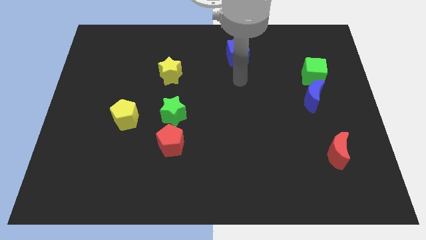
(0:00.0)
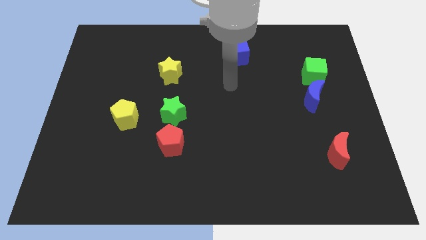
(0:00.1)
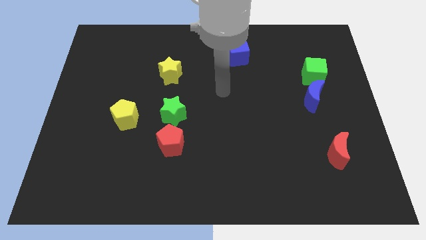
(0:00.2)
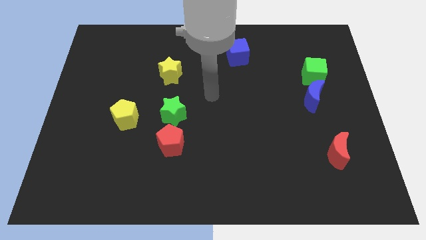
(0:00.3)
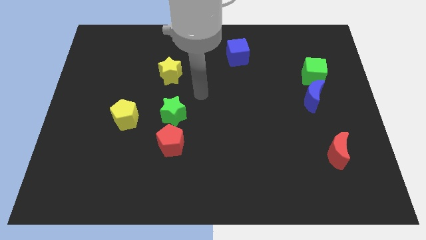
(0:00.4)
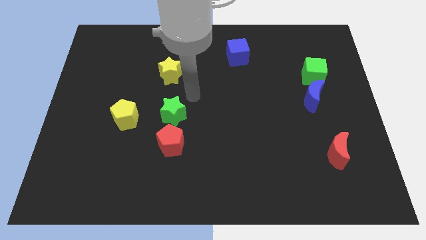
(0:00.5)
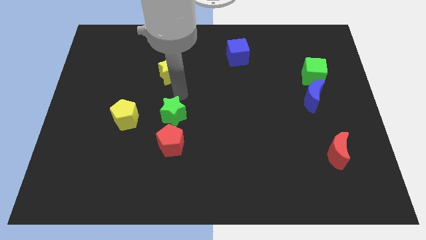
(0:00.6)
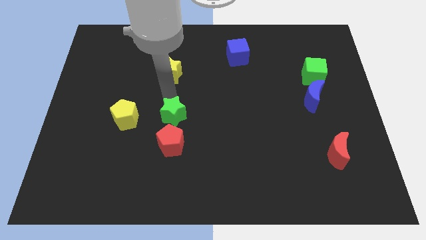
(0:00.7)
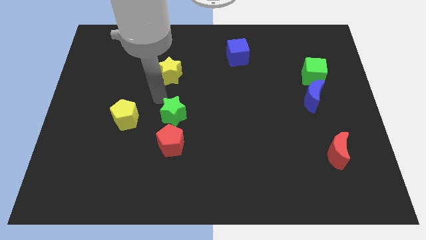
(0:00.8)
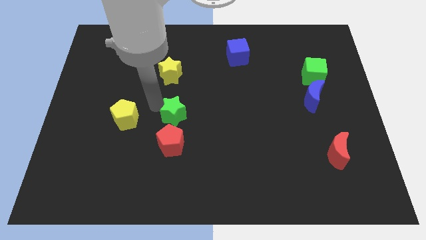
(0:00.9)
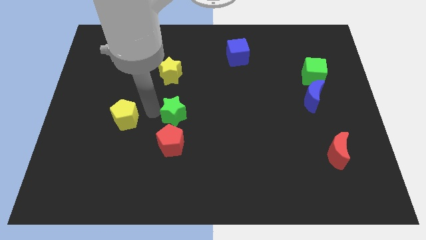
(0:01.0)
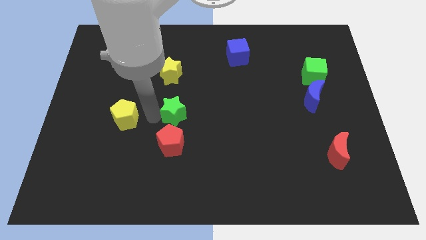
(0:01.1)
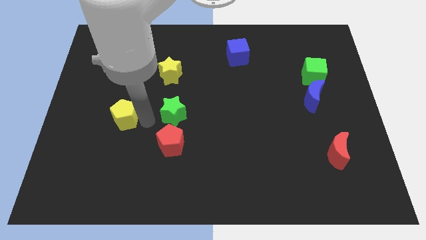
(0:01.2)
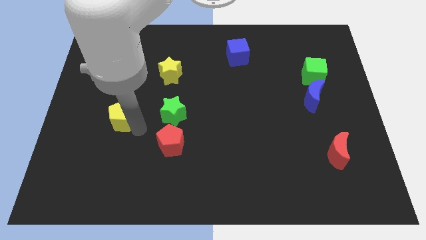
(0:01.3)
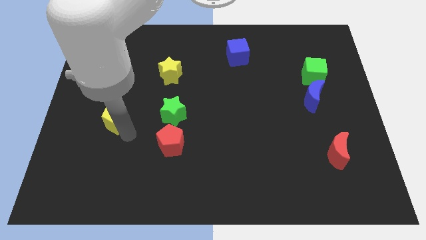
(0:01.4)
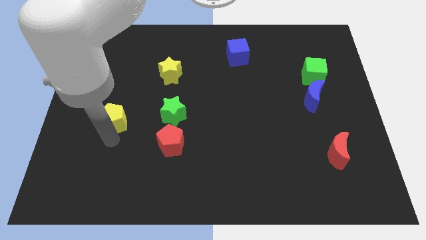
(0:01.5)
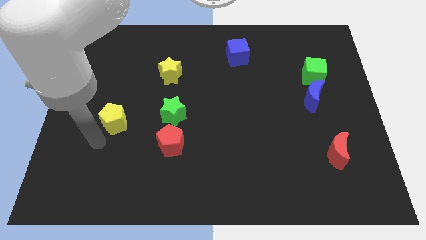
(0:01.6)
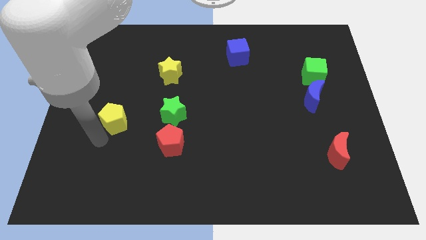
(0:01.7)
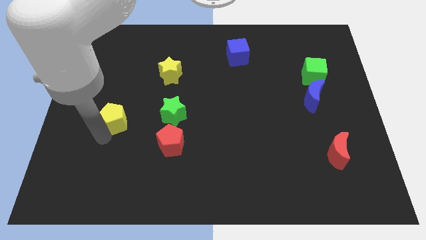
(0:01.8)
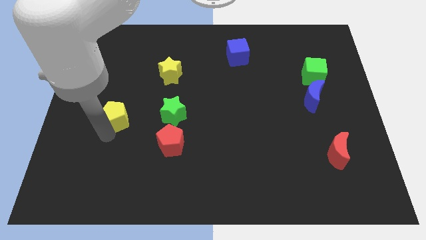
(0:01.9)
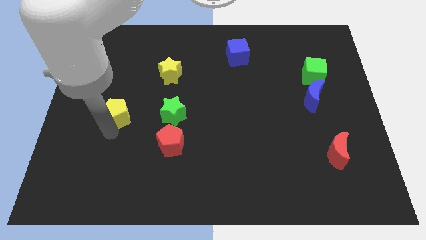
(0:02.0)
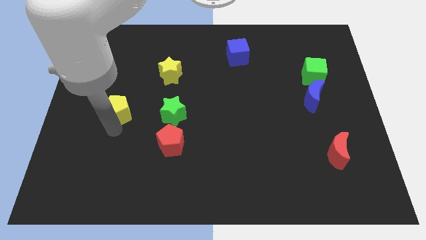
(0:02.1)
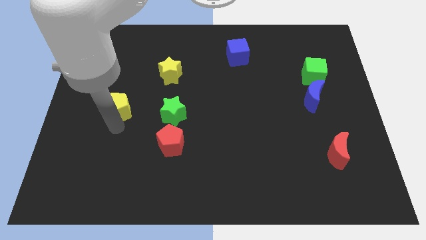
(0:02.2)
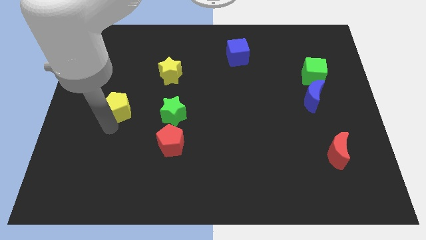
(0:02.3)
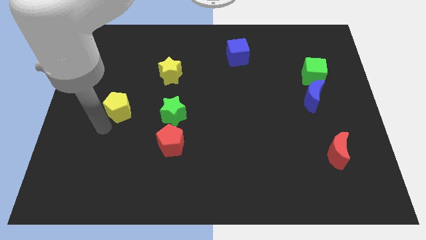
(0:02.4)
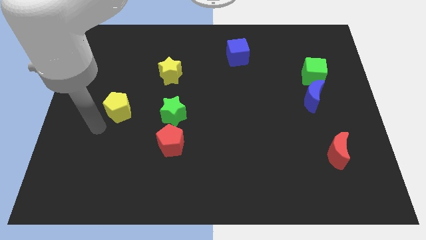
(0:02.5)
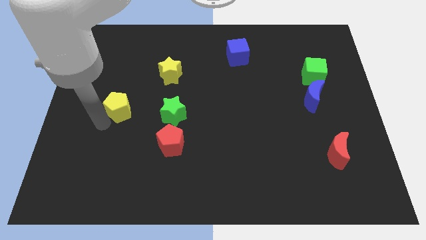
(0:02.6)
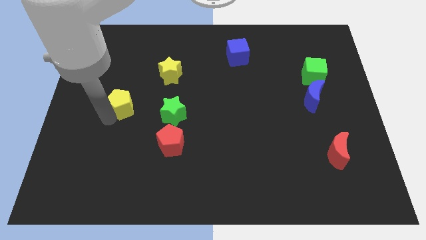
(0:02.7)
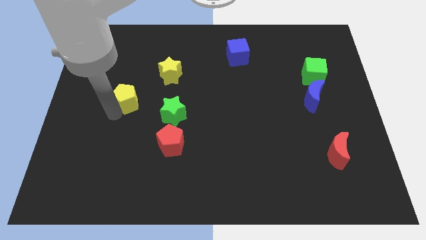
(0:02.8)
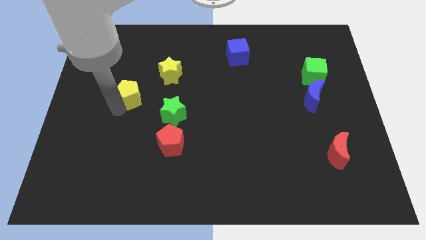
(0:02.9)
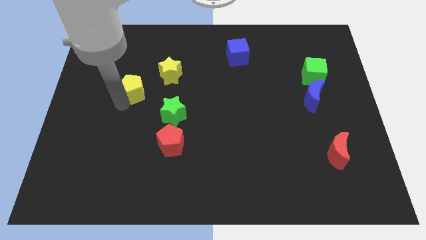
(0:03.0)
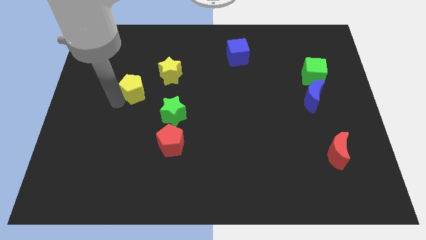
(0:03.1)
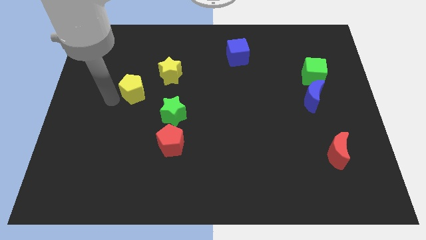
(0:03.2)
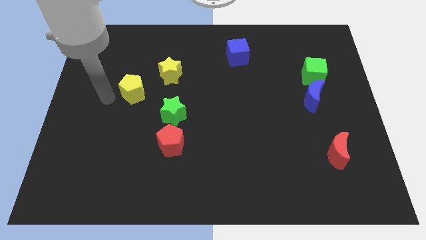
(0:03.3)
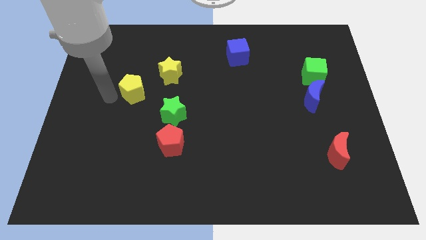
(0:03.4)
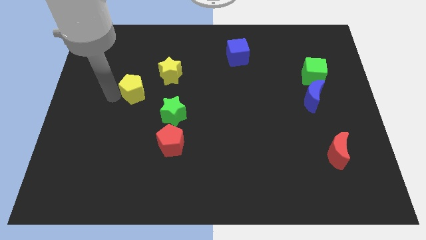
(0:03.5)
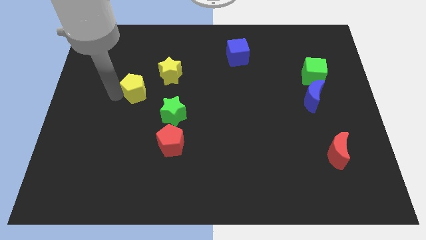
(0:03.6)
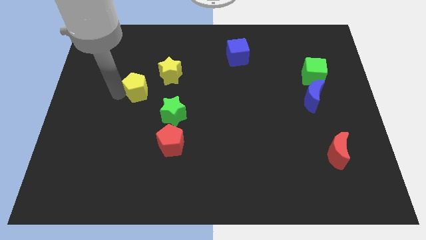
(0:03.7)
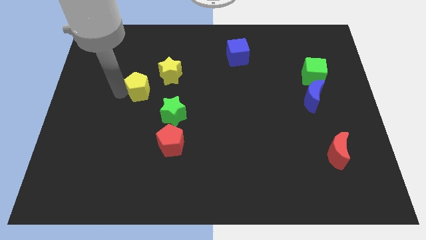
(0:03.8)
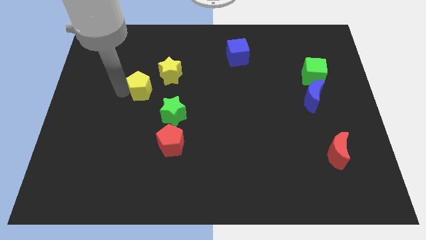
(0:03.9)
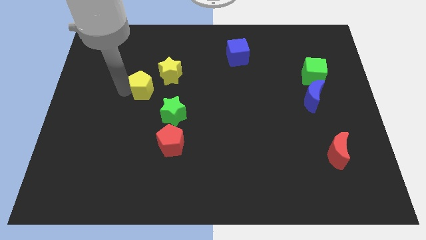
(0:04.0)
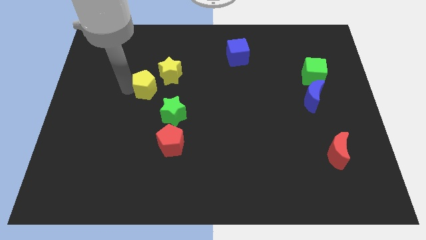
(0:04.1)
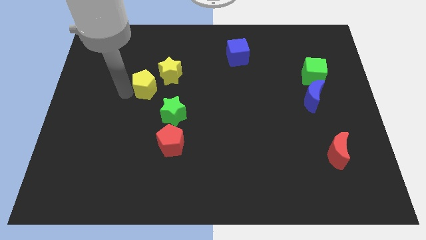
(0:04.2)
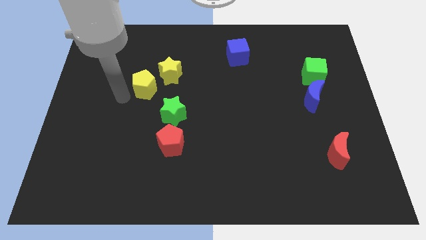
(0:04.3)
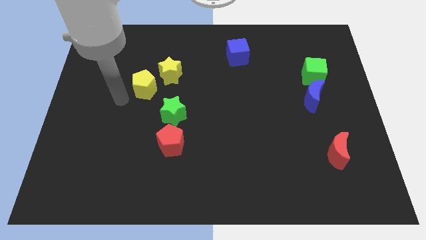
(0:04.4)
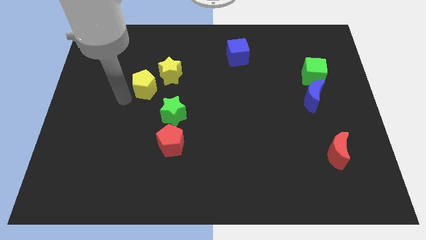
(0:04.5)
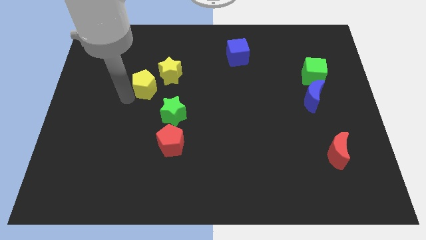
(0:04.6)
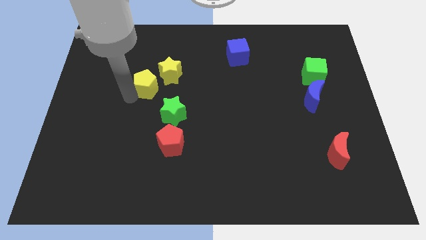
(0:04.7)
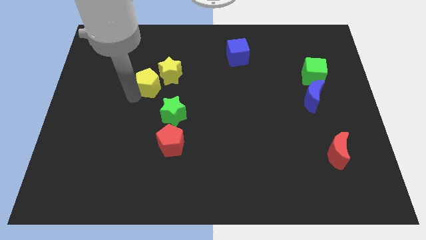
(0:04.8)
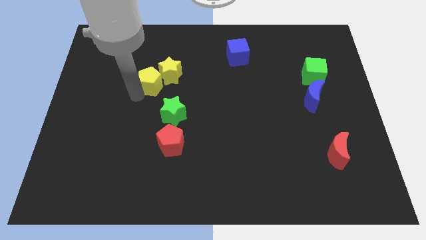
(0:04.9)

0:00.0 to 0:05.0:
move the yellow pentagon close to the yellow star

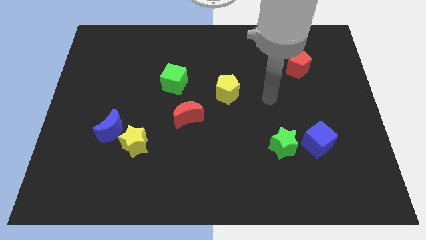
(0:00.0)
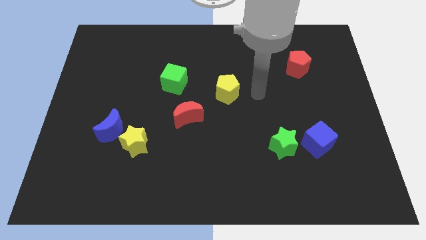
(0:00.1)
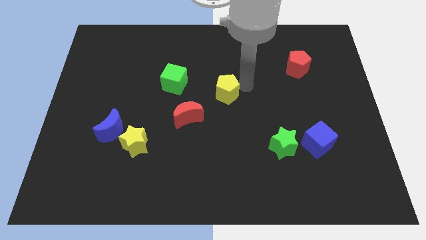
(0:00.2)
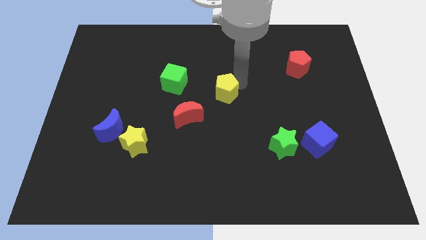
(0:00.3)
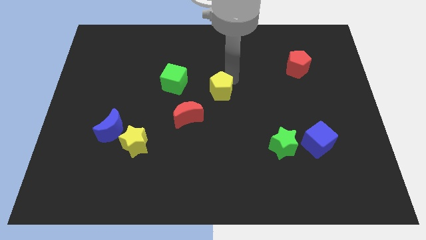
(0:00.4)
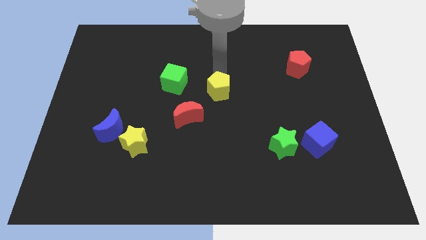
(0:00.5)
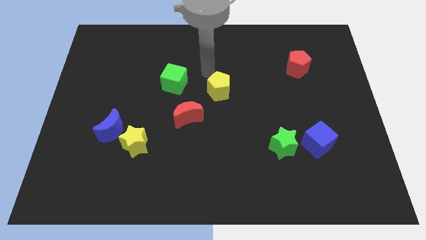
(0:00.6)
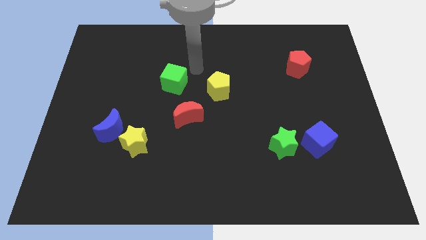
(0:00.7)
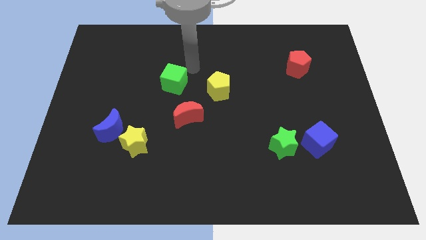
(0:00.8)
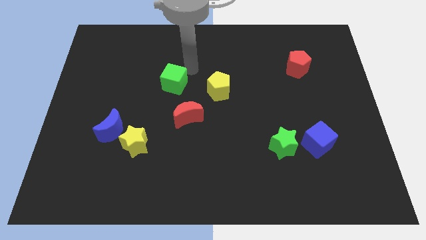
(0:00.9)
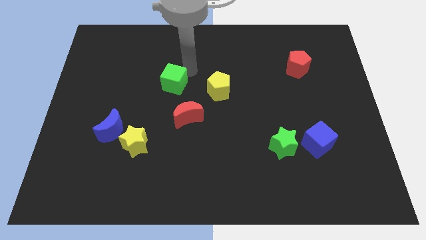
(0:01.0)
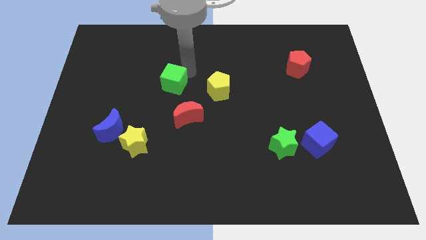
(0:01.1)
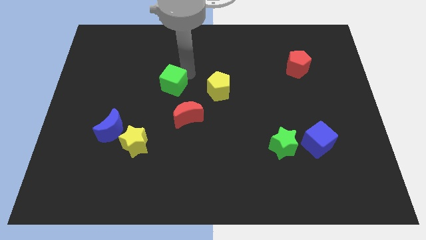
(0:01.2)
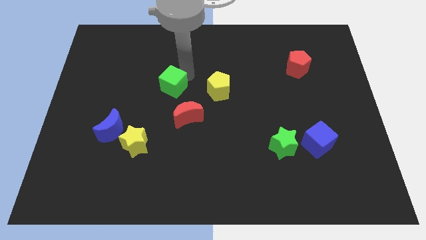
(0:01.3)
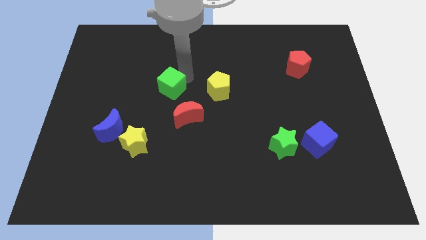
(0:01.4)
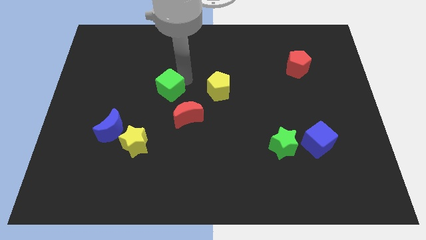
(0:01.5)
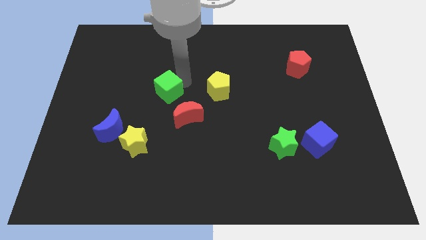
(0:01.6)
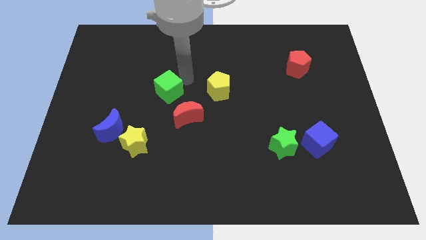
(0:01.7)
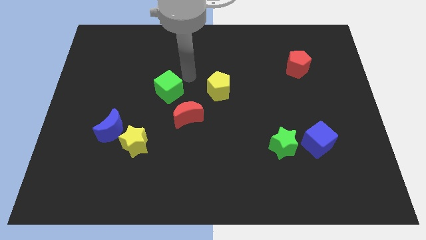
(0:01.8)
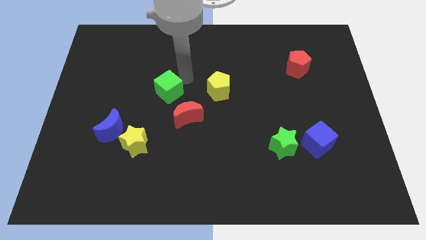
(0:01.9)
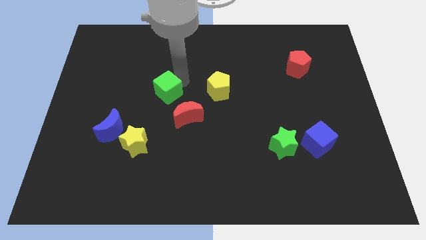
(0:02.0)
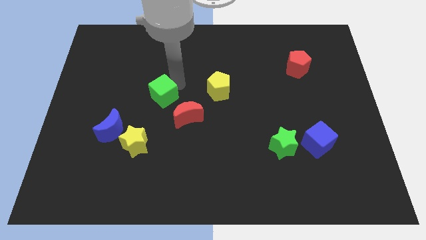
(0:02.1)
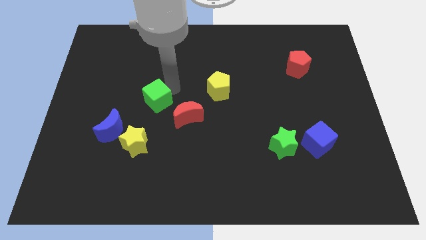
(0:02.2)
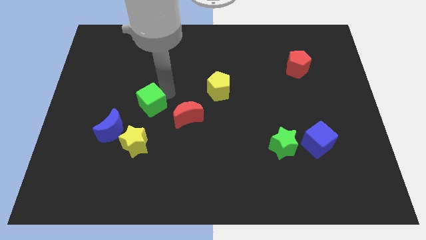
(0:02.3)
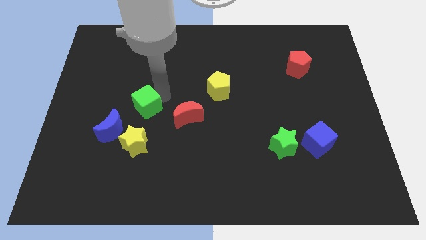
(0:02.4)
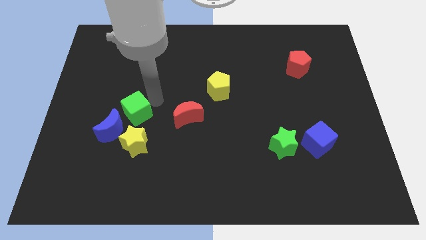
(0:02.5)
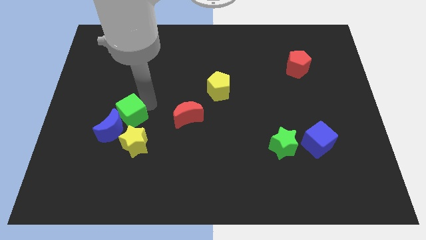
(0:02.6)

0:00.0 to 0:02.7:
slide the green cube close to the blue moon
